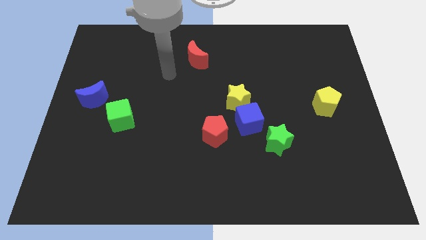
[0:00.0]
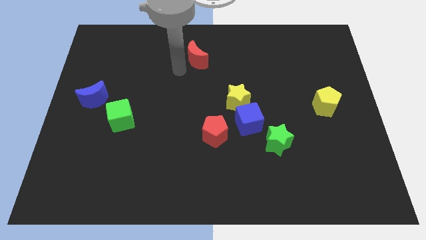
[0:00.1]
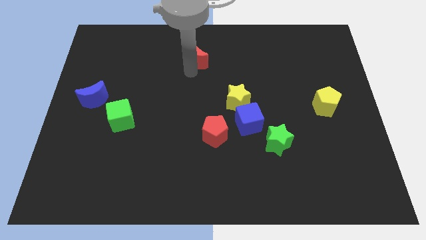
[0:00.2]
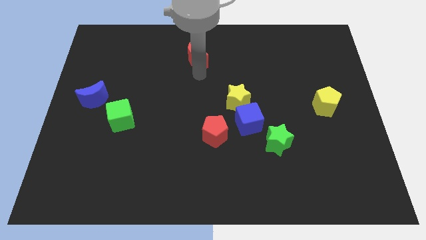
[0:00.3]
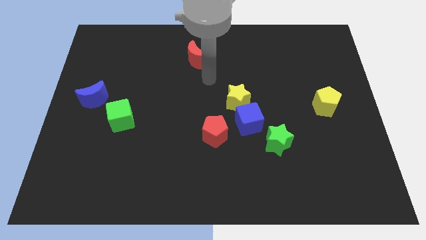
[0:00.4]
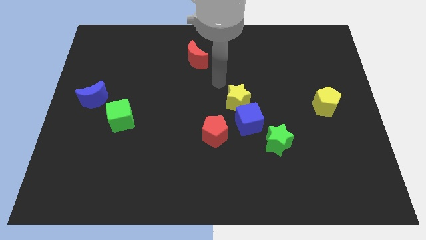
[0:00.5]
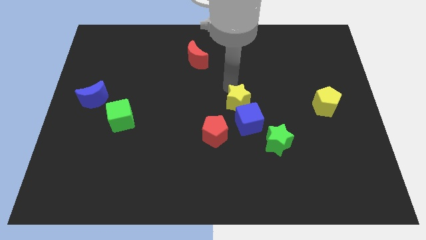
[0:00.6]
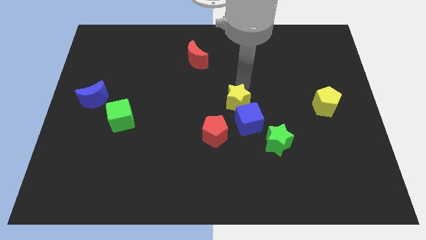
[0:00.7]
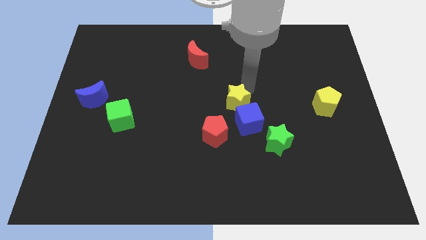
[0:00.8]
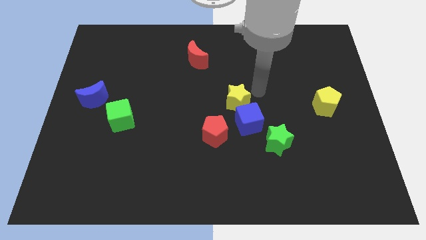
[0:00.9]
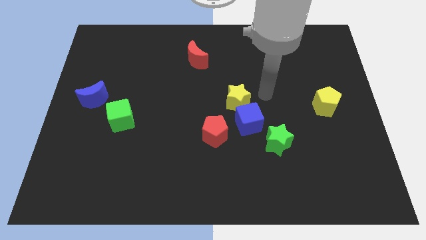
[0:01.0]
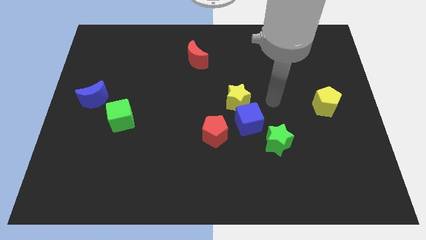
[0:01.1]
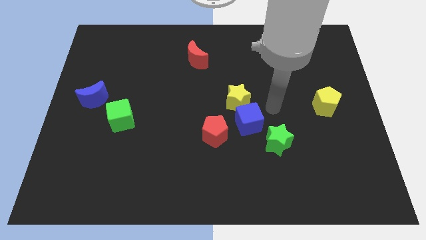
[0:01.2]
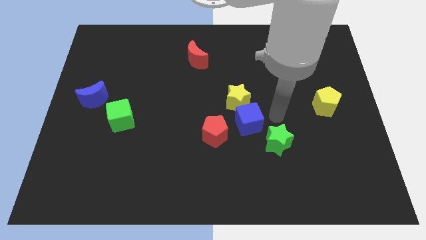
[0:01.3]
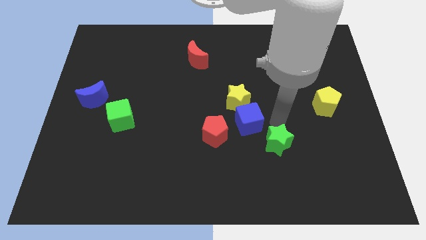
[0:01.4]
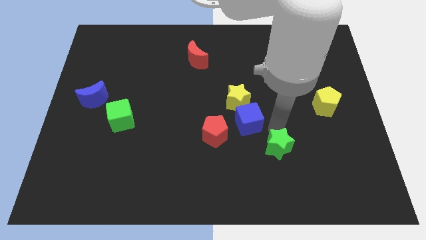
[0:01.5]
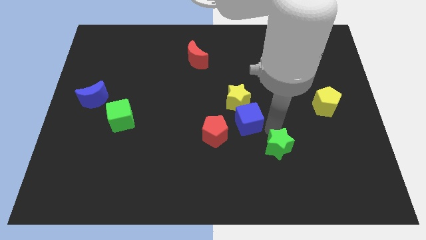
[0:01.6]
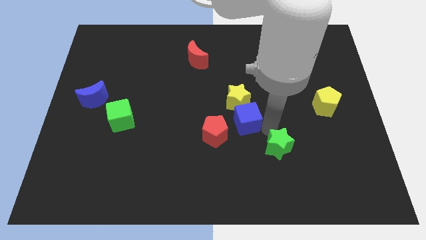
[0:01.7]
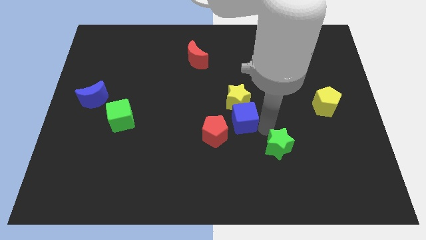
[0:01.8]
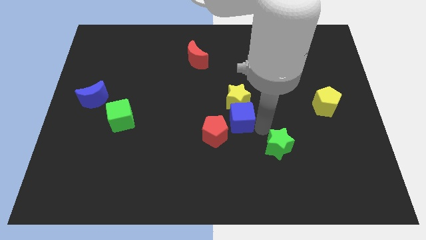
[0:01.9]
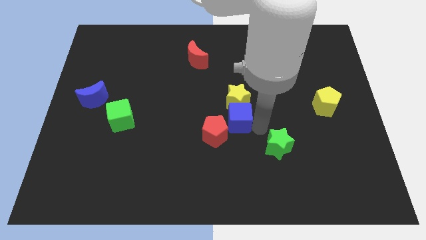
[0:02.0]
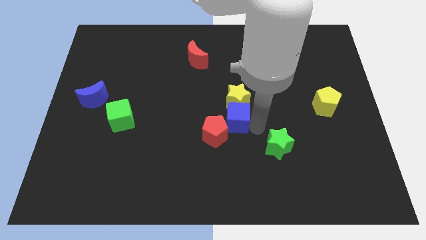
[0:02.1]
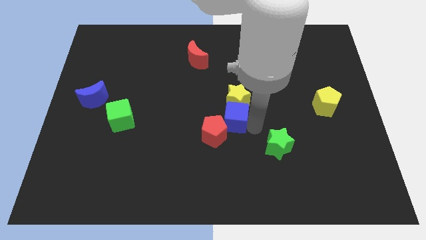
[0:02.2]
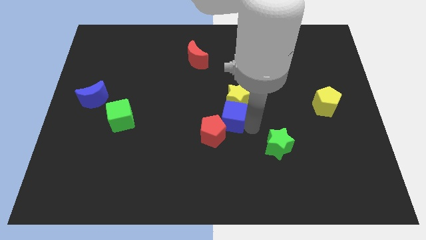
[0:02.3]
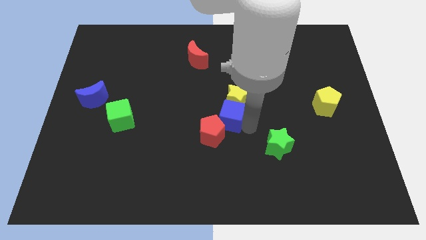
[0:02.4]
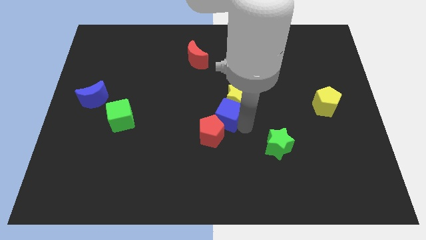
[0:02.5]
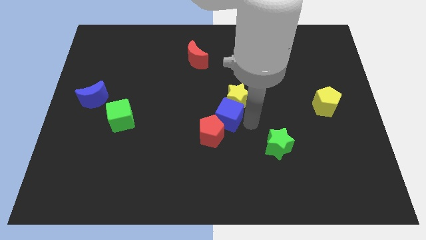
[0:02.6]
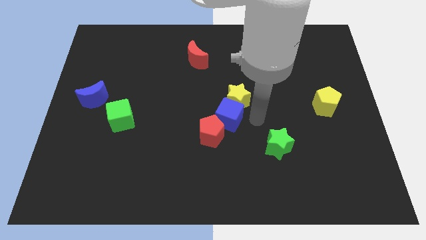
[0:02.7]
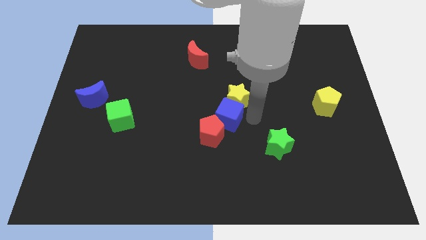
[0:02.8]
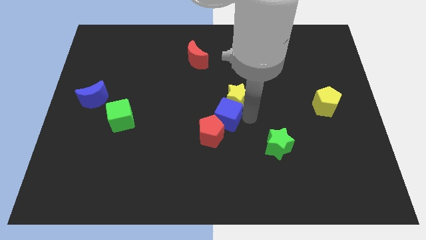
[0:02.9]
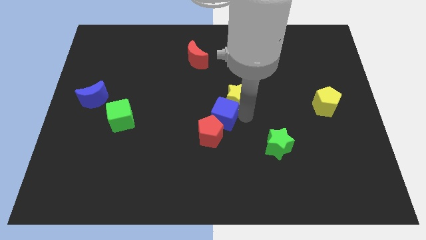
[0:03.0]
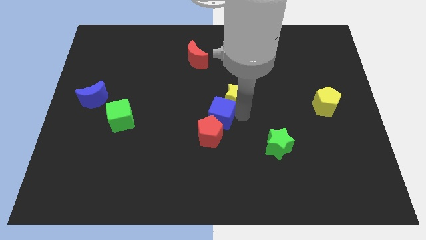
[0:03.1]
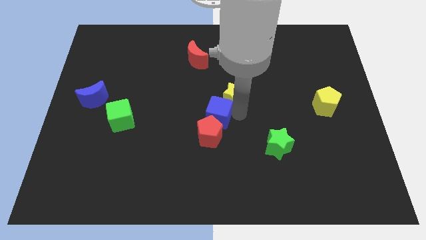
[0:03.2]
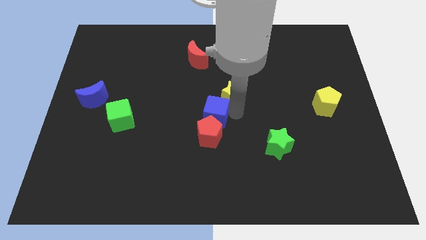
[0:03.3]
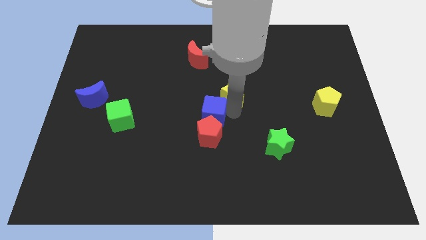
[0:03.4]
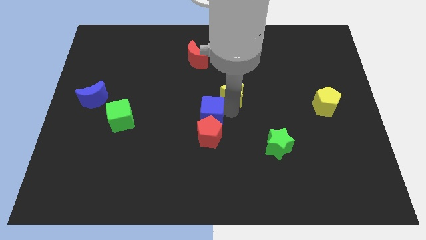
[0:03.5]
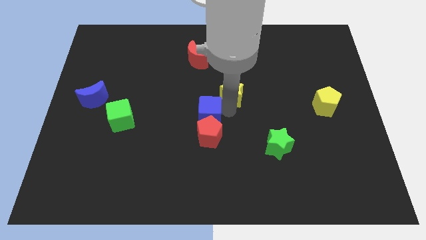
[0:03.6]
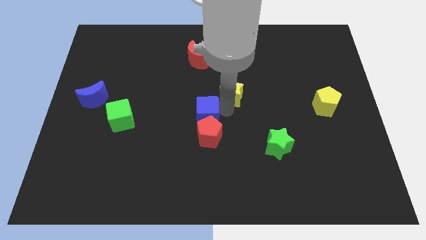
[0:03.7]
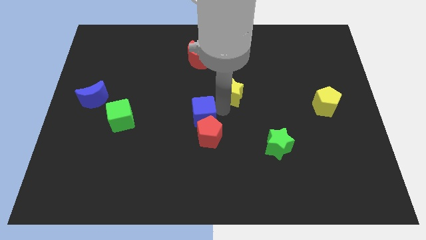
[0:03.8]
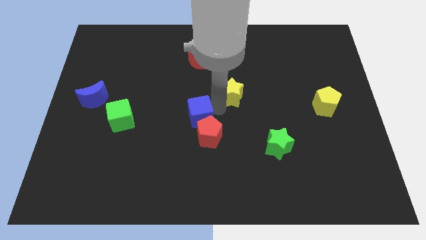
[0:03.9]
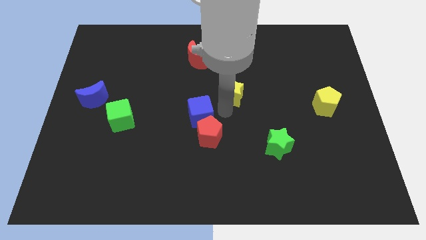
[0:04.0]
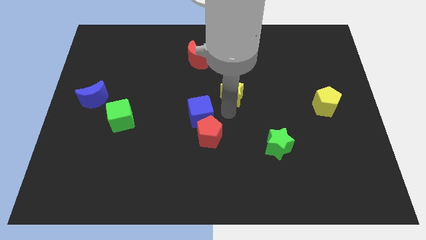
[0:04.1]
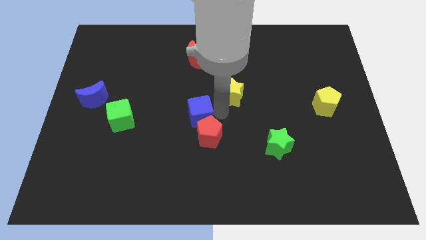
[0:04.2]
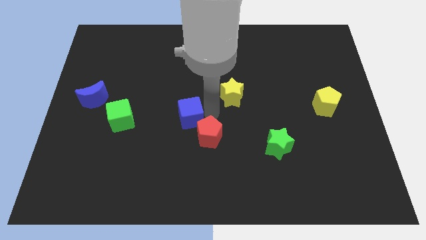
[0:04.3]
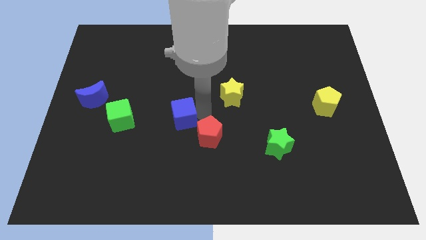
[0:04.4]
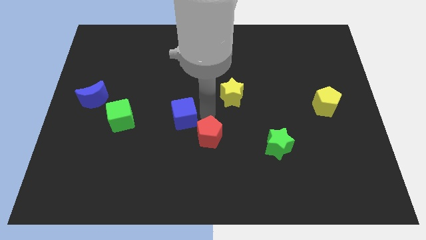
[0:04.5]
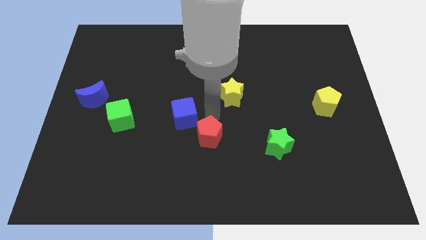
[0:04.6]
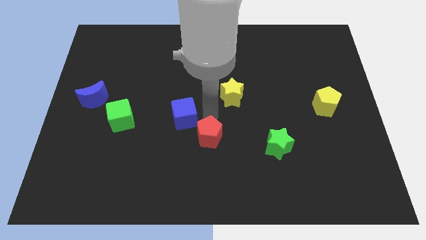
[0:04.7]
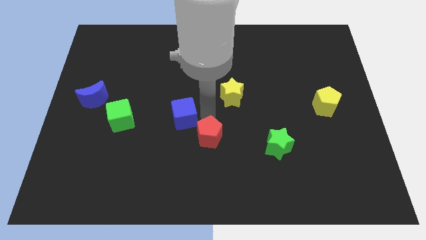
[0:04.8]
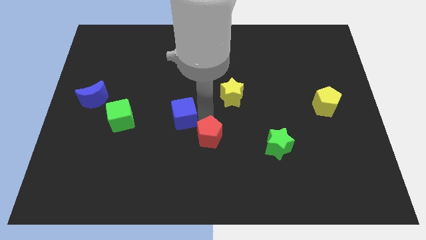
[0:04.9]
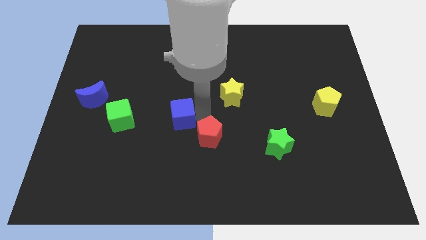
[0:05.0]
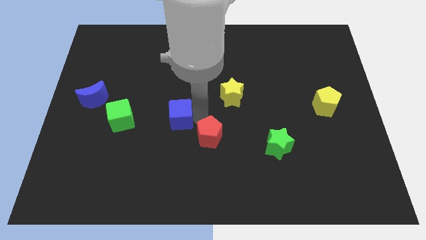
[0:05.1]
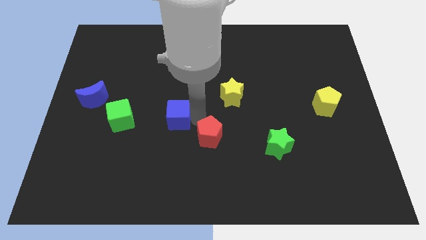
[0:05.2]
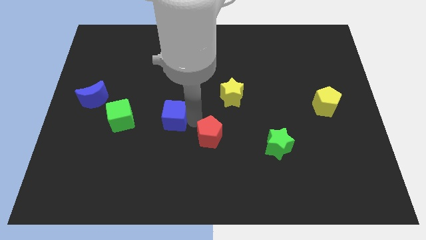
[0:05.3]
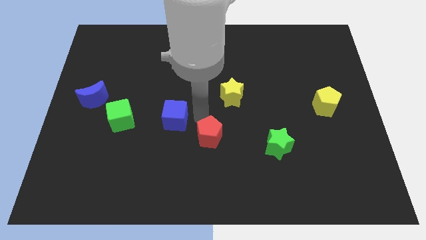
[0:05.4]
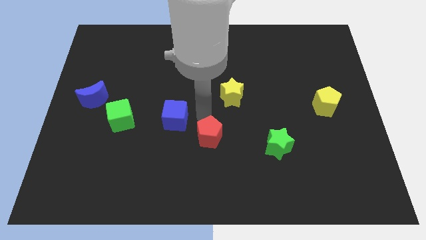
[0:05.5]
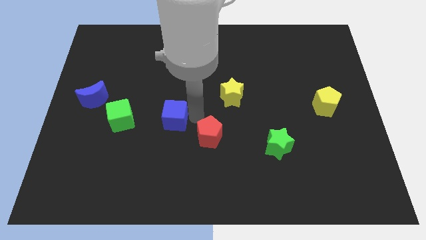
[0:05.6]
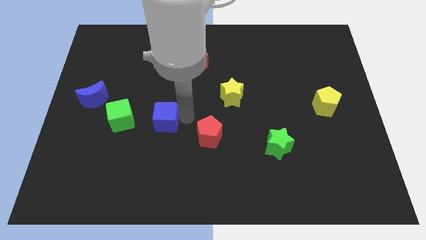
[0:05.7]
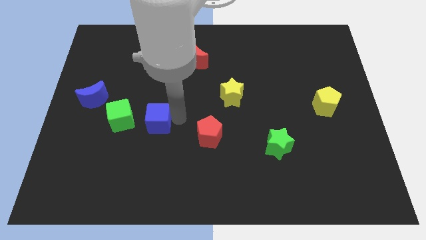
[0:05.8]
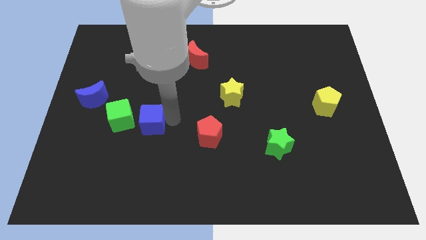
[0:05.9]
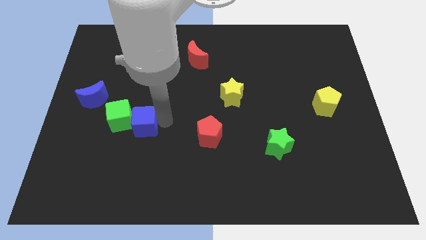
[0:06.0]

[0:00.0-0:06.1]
move the blue cube close to the green cube

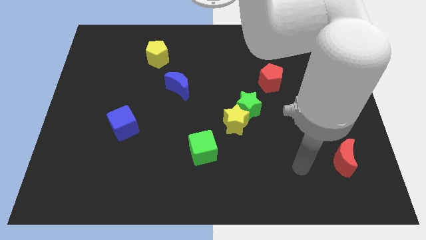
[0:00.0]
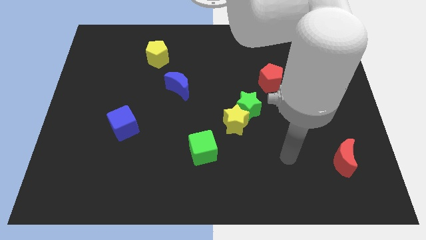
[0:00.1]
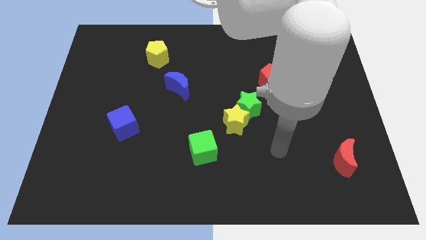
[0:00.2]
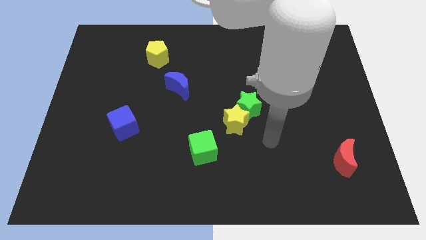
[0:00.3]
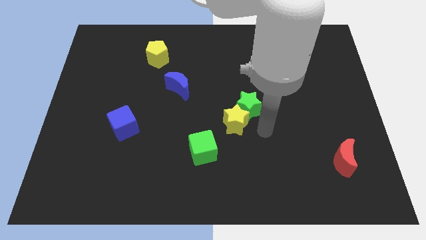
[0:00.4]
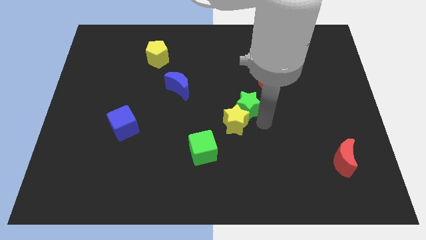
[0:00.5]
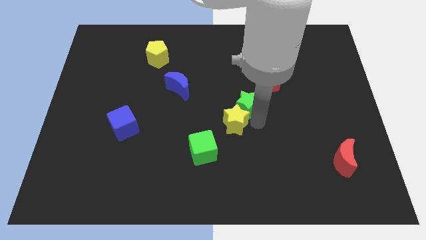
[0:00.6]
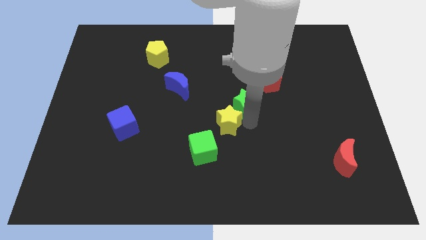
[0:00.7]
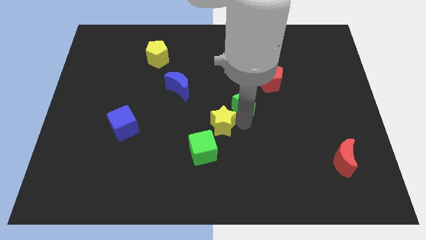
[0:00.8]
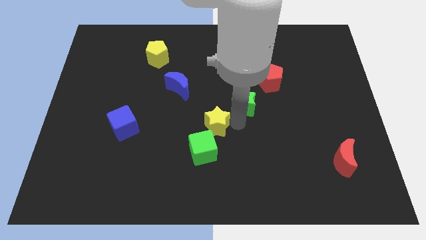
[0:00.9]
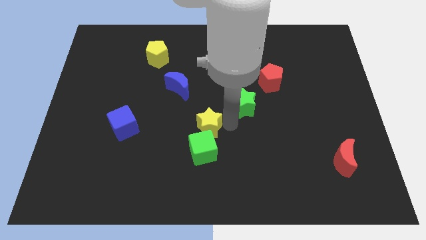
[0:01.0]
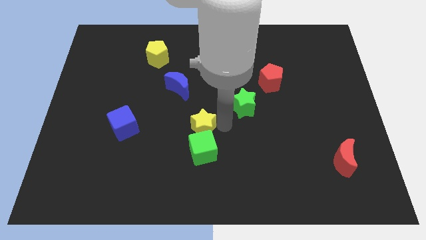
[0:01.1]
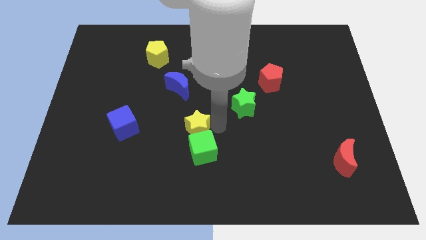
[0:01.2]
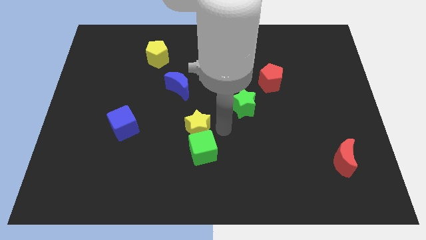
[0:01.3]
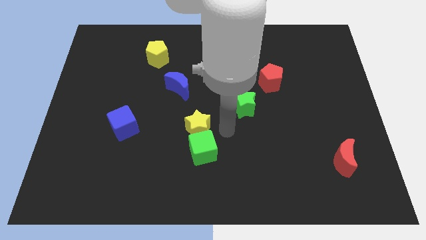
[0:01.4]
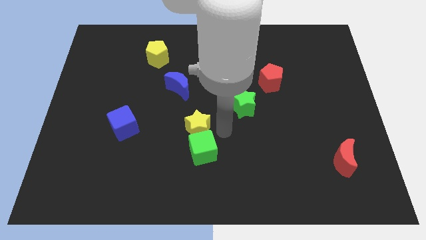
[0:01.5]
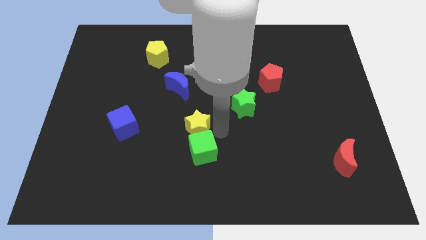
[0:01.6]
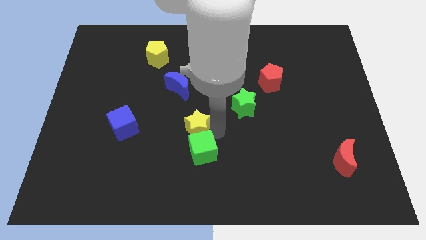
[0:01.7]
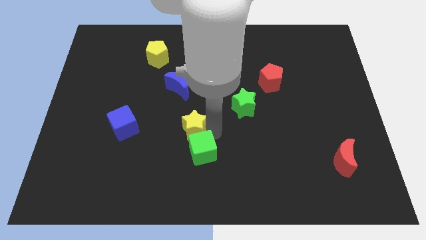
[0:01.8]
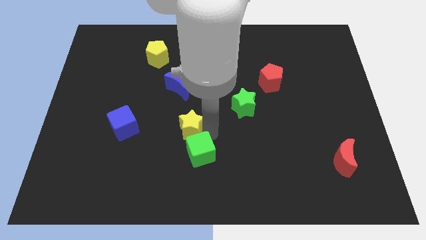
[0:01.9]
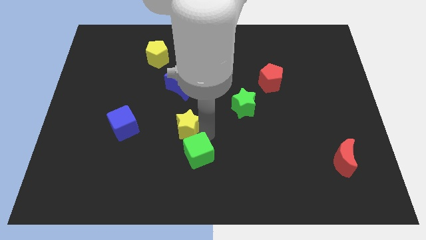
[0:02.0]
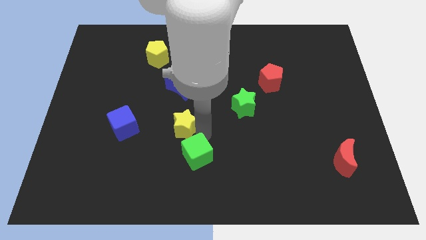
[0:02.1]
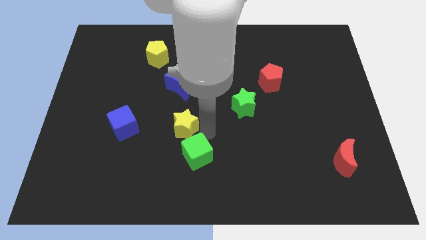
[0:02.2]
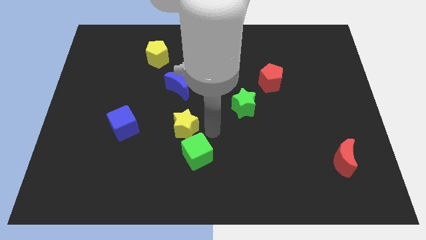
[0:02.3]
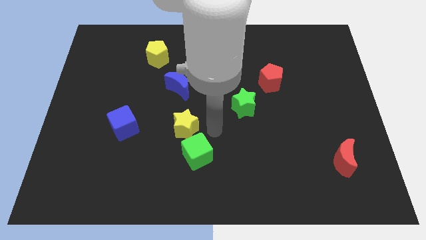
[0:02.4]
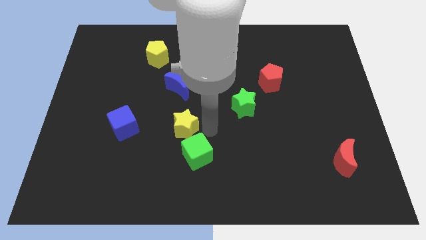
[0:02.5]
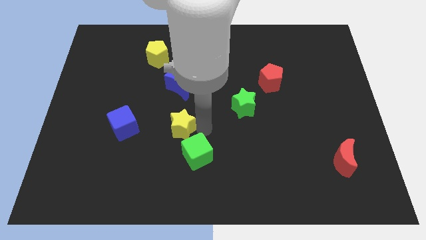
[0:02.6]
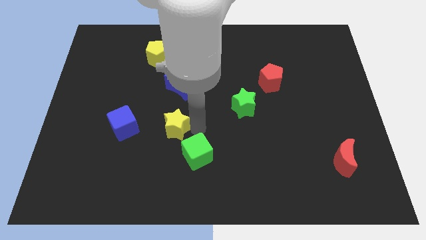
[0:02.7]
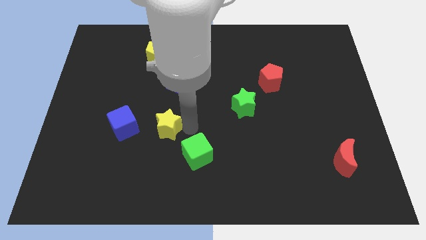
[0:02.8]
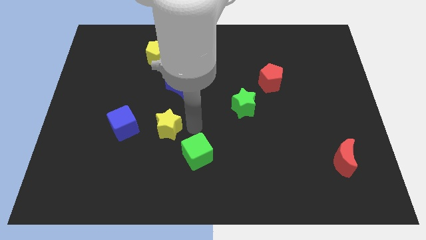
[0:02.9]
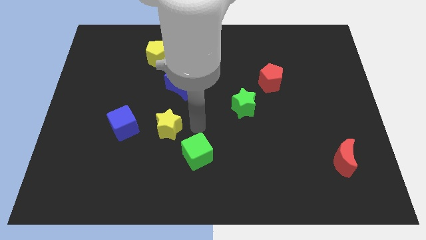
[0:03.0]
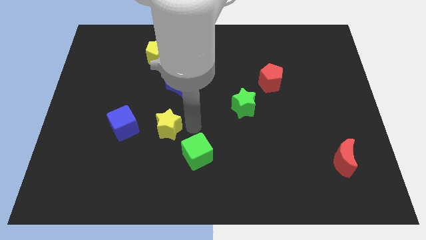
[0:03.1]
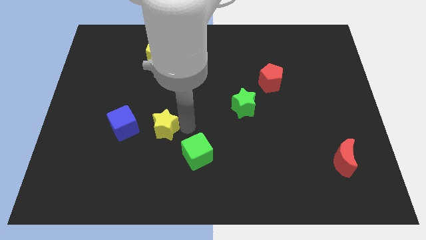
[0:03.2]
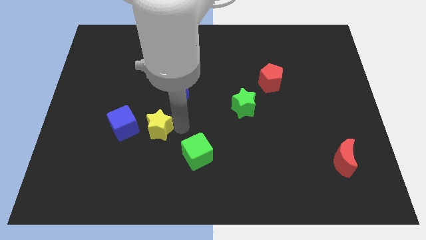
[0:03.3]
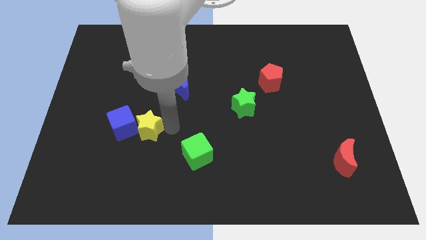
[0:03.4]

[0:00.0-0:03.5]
move the yellow star next to the blue cube
